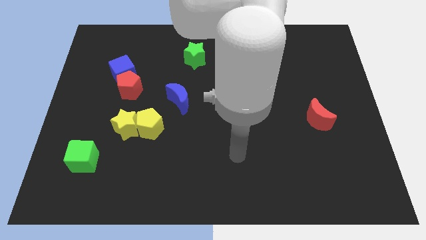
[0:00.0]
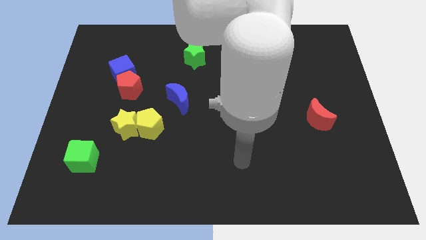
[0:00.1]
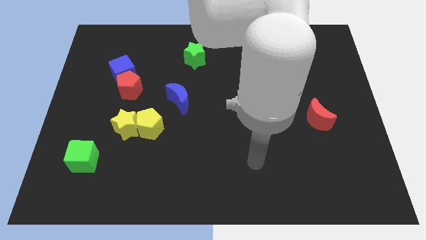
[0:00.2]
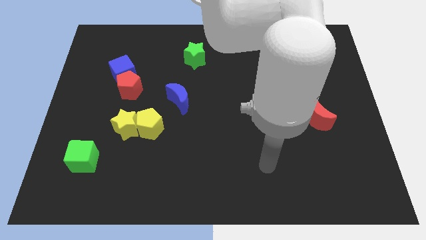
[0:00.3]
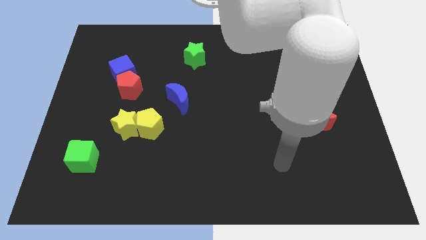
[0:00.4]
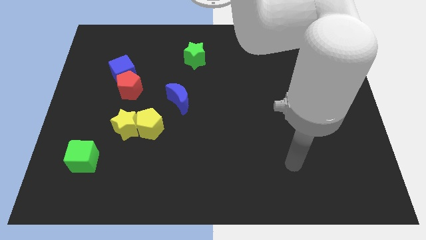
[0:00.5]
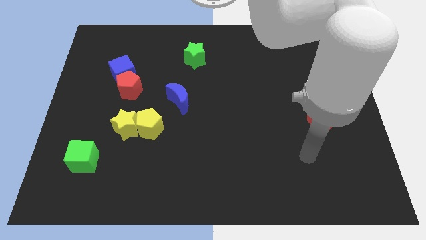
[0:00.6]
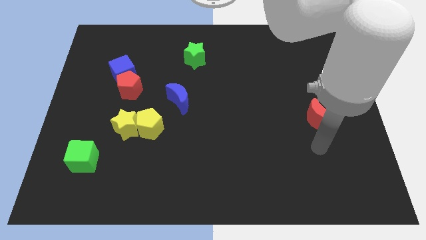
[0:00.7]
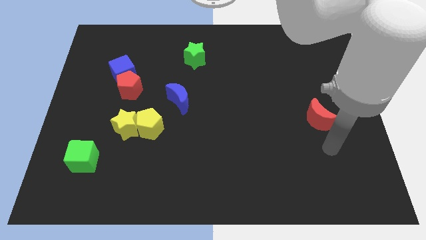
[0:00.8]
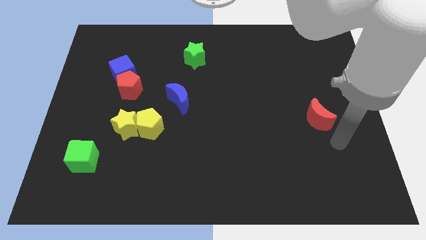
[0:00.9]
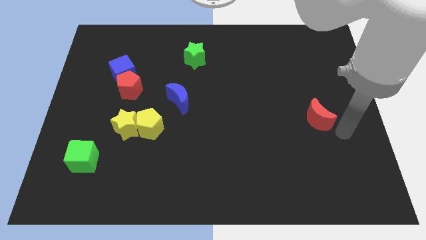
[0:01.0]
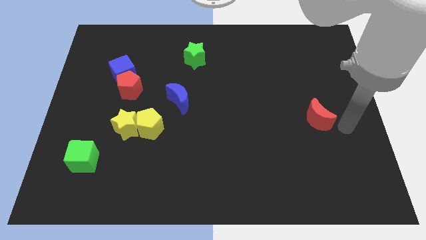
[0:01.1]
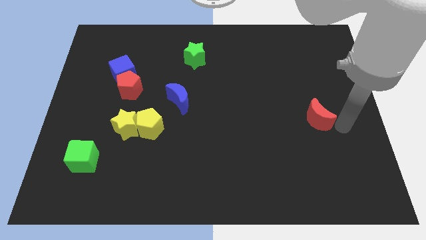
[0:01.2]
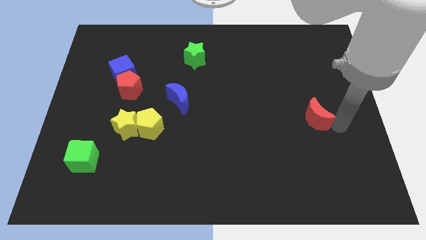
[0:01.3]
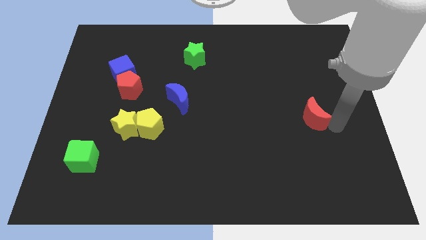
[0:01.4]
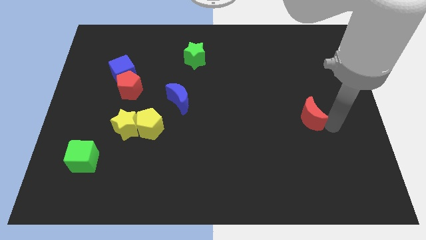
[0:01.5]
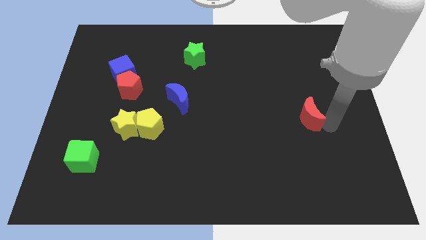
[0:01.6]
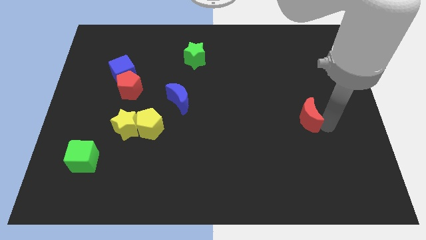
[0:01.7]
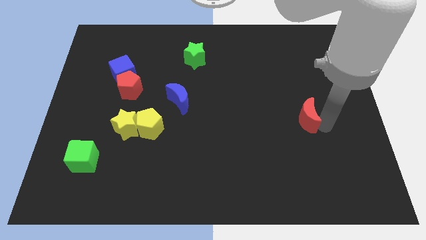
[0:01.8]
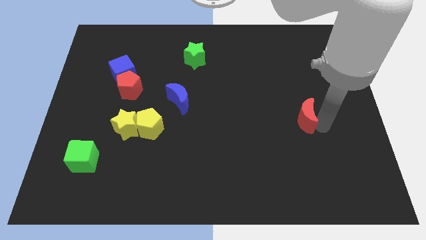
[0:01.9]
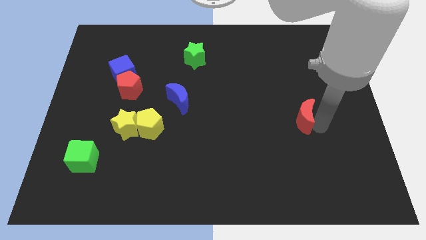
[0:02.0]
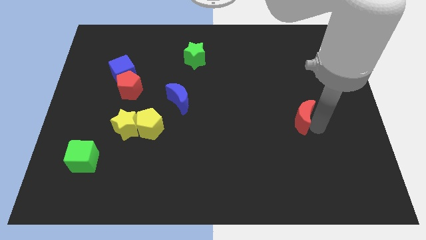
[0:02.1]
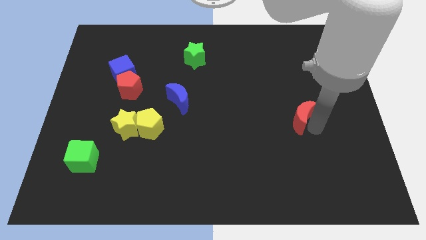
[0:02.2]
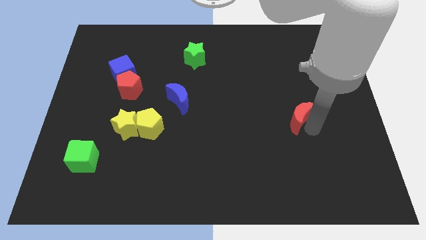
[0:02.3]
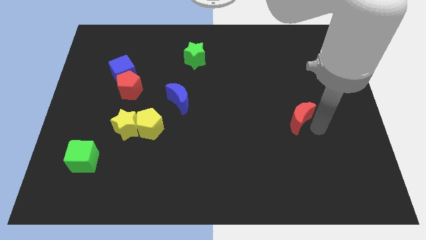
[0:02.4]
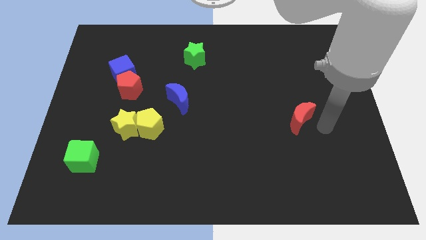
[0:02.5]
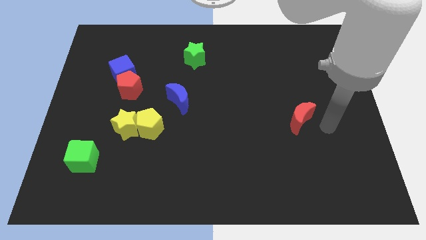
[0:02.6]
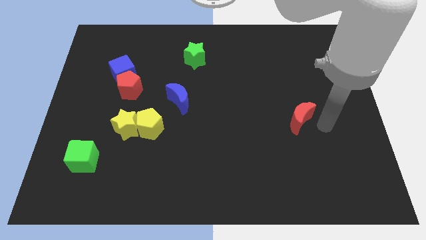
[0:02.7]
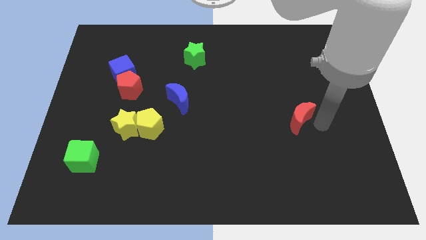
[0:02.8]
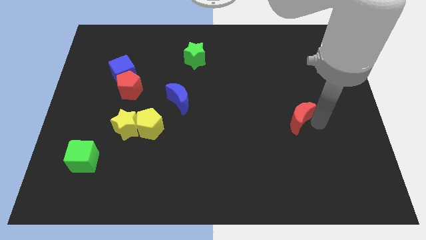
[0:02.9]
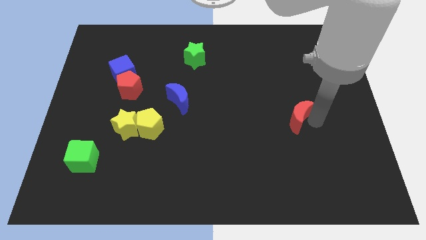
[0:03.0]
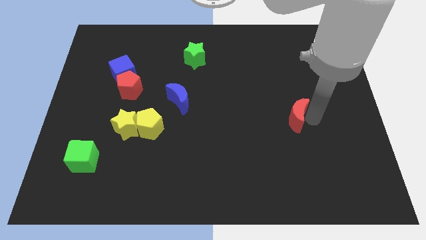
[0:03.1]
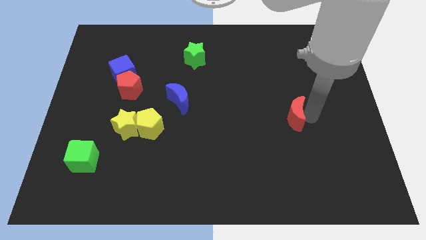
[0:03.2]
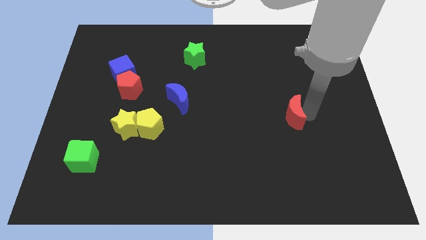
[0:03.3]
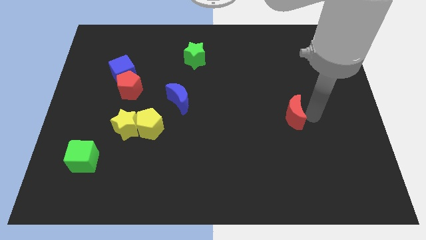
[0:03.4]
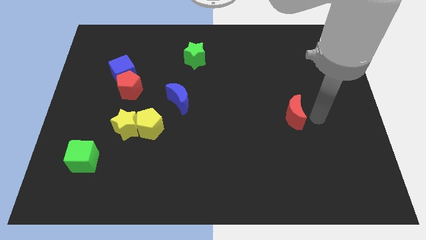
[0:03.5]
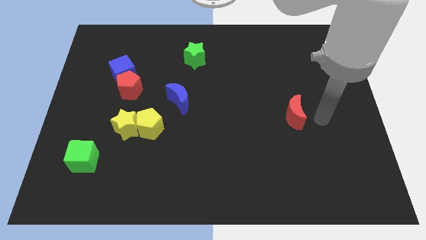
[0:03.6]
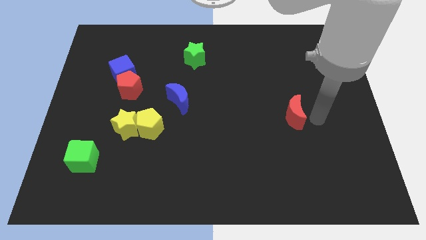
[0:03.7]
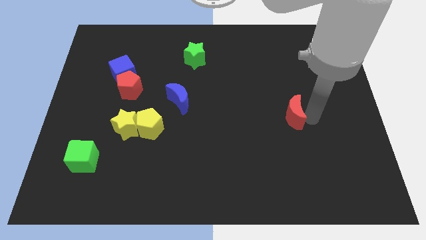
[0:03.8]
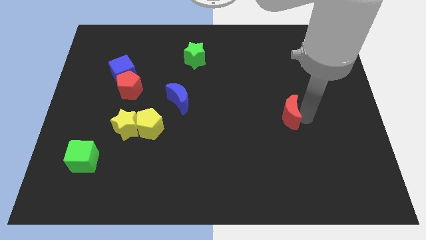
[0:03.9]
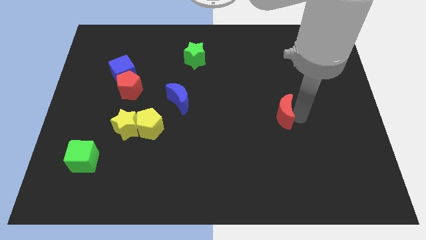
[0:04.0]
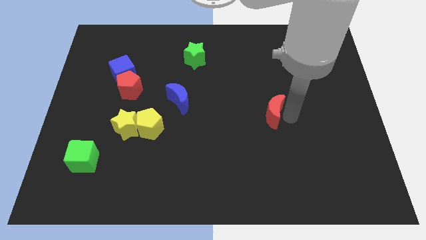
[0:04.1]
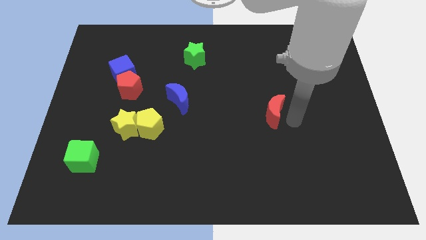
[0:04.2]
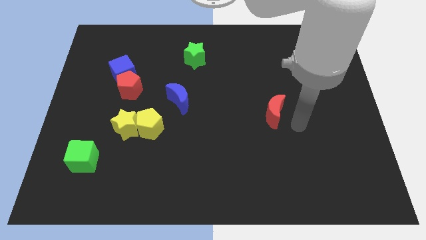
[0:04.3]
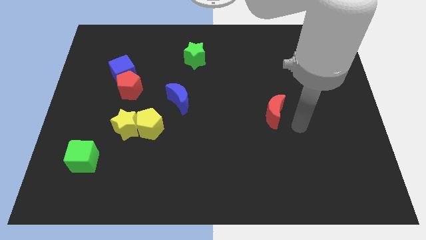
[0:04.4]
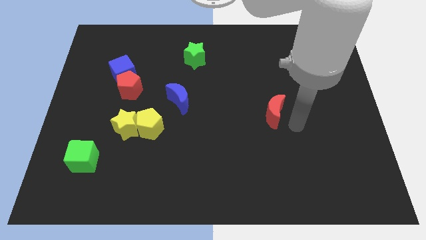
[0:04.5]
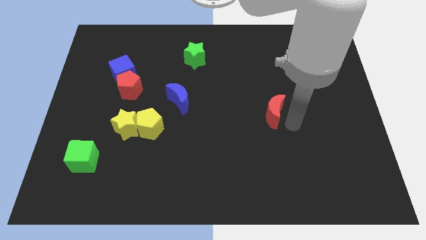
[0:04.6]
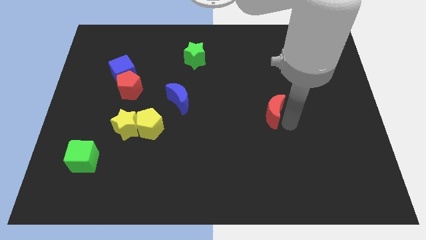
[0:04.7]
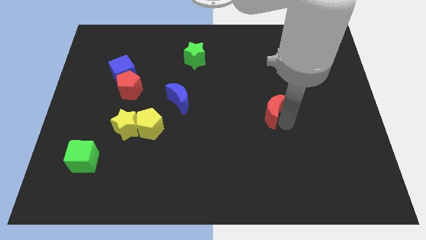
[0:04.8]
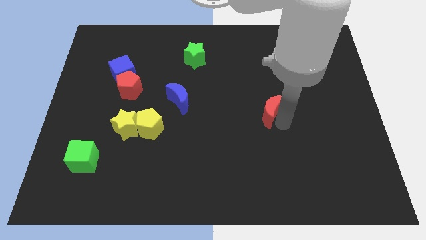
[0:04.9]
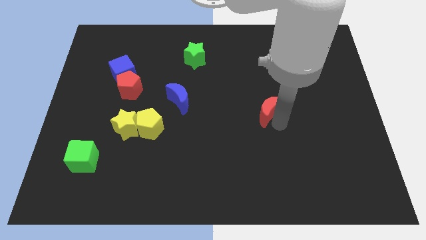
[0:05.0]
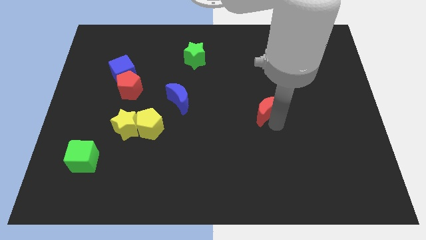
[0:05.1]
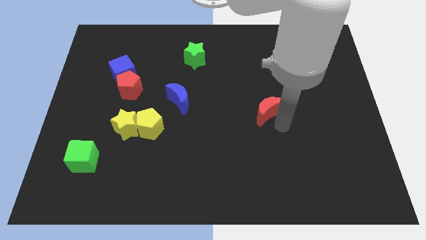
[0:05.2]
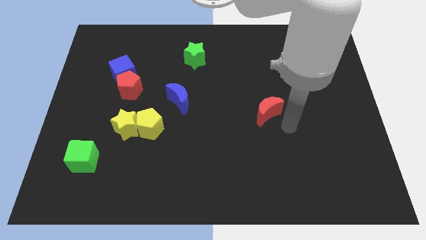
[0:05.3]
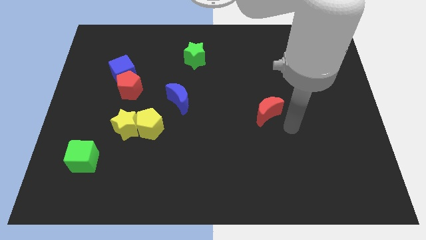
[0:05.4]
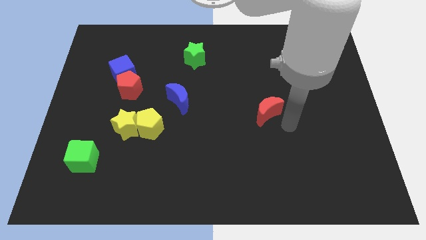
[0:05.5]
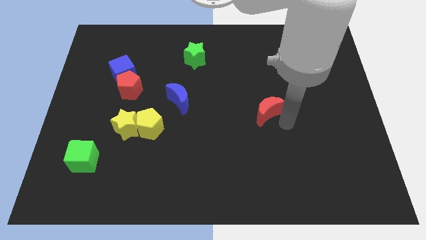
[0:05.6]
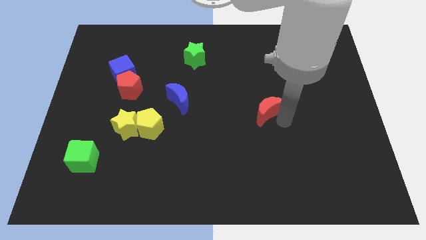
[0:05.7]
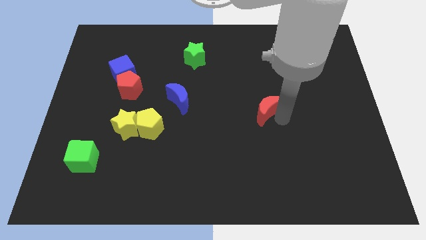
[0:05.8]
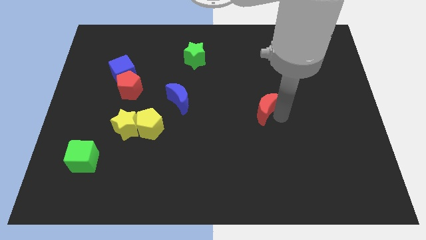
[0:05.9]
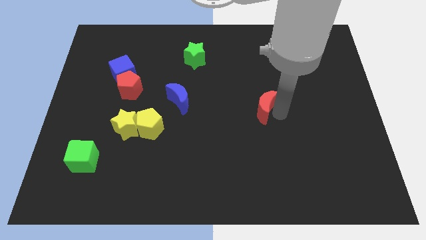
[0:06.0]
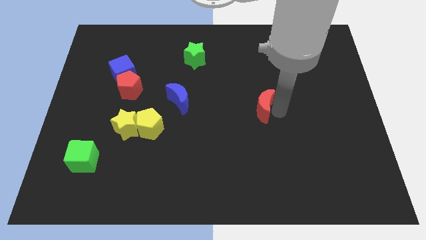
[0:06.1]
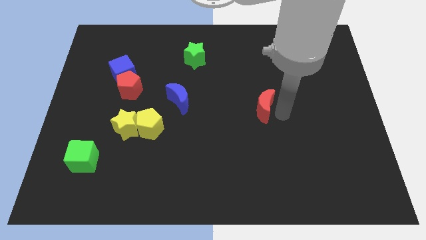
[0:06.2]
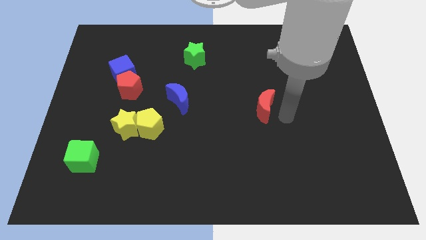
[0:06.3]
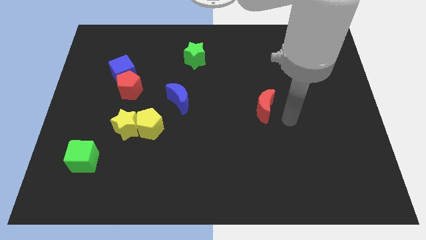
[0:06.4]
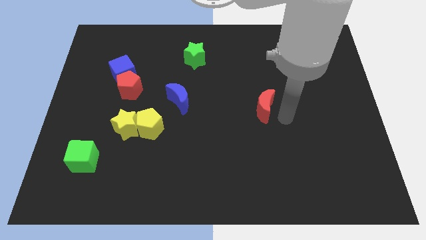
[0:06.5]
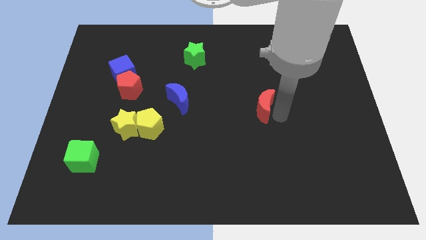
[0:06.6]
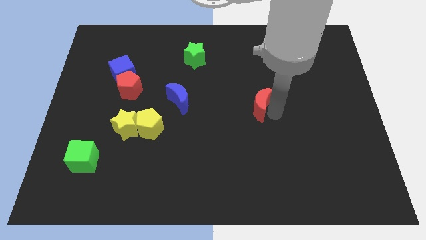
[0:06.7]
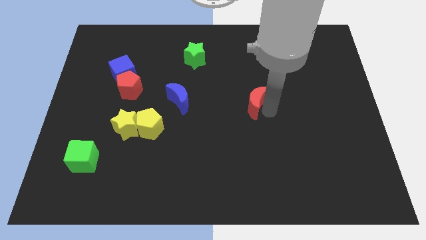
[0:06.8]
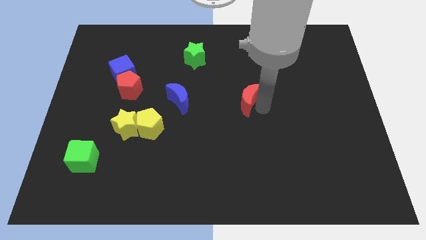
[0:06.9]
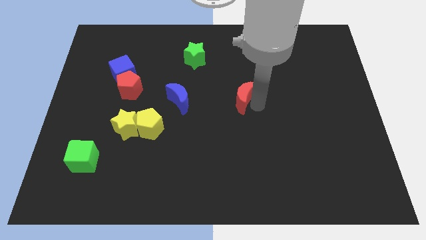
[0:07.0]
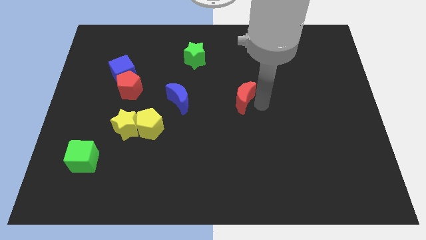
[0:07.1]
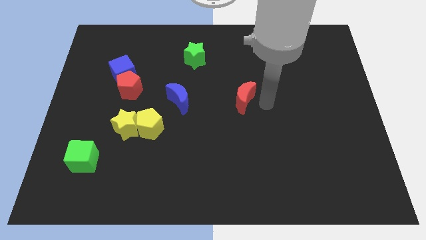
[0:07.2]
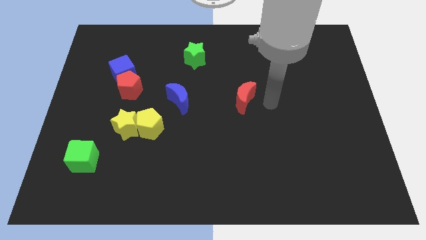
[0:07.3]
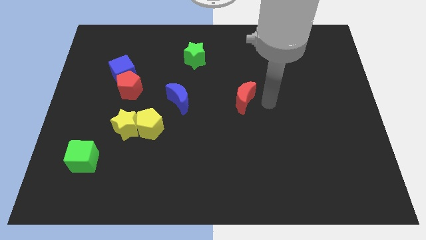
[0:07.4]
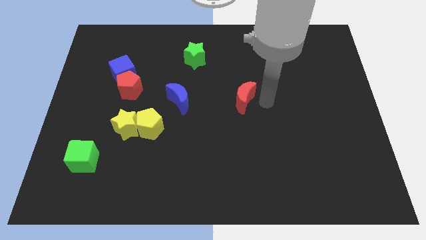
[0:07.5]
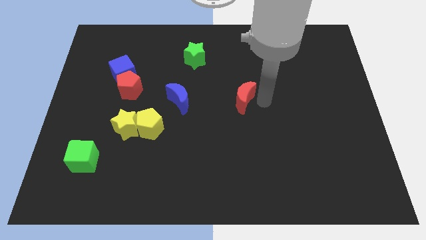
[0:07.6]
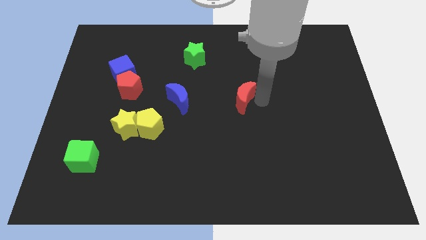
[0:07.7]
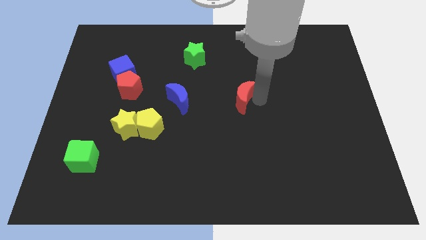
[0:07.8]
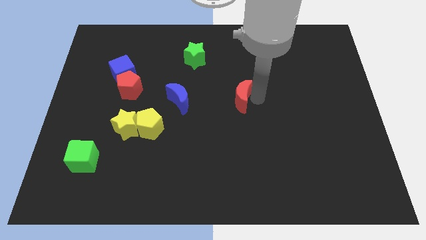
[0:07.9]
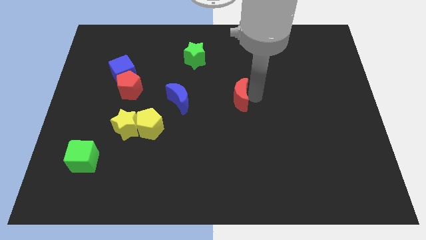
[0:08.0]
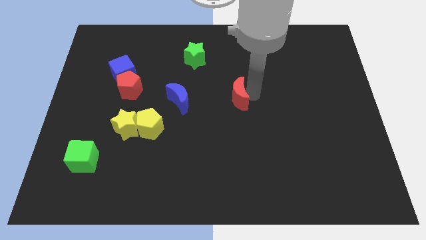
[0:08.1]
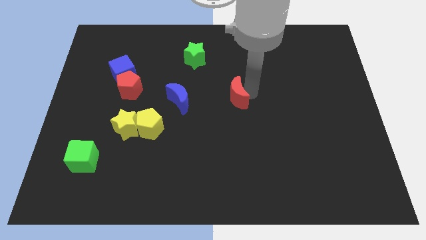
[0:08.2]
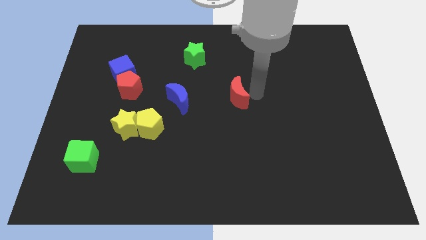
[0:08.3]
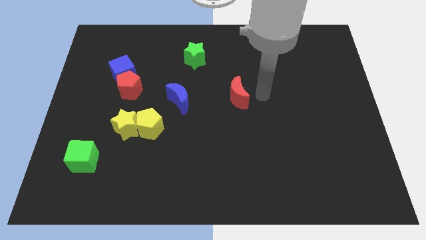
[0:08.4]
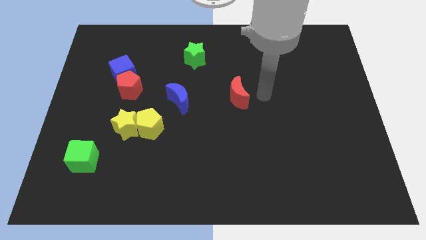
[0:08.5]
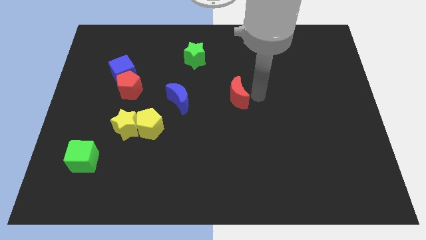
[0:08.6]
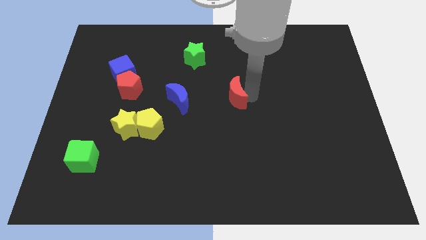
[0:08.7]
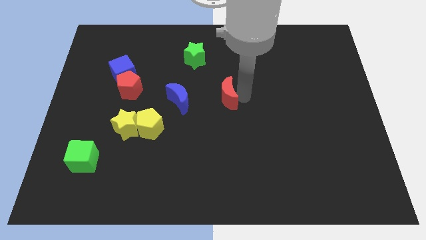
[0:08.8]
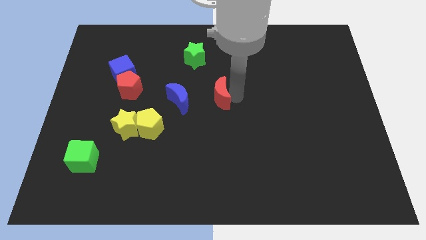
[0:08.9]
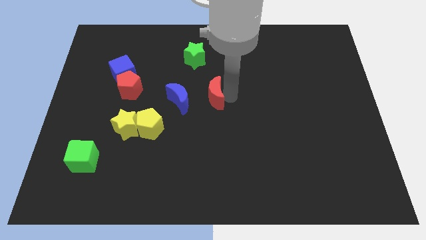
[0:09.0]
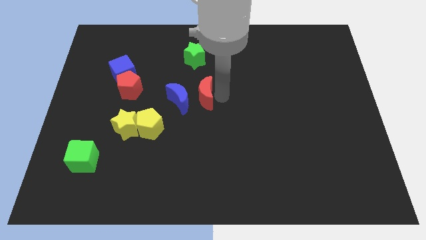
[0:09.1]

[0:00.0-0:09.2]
move the red moon to the blue moon
